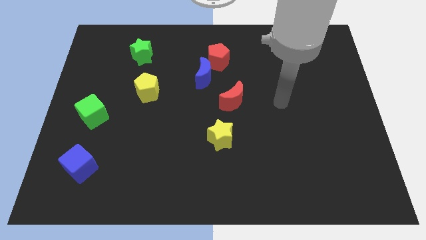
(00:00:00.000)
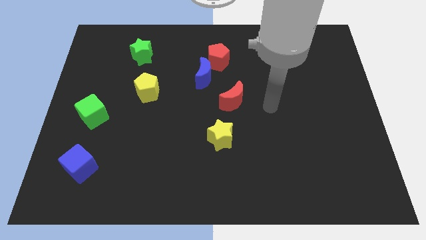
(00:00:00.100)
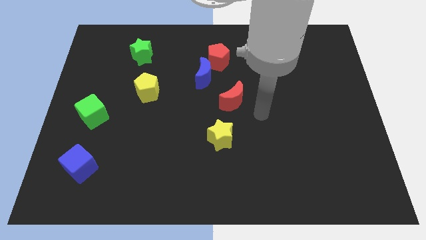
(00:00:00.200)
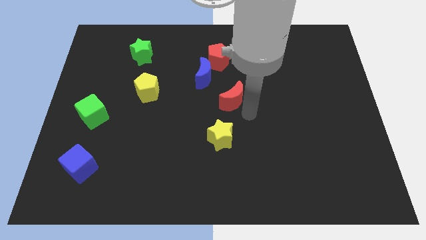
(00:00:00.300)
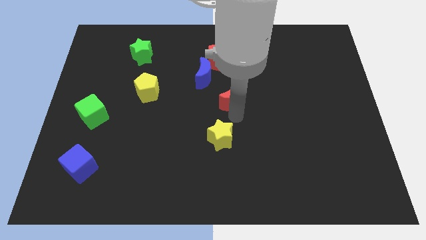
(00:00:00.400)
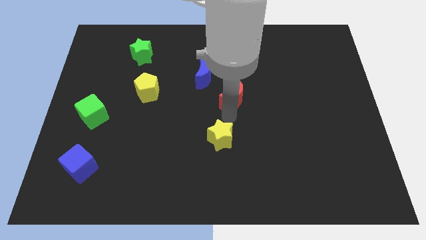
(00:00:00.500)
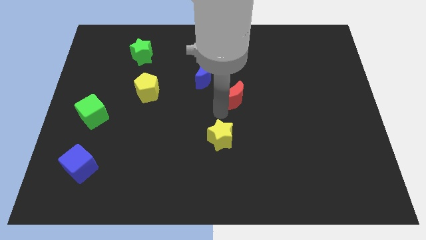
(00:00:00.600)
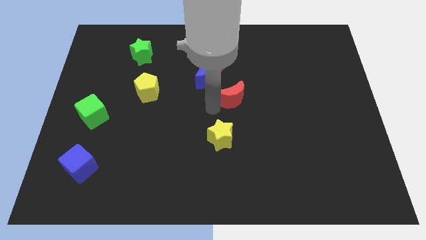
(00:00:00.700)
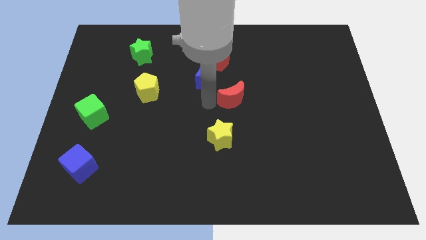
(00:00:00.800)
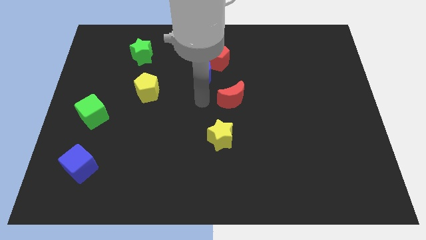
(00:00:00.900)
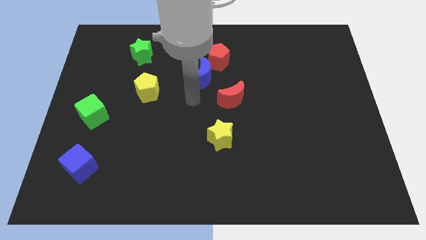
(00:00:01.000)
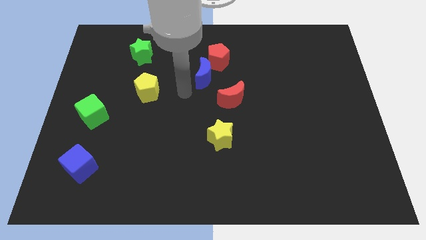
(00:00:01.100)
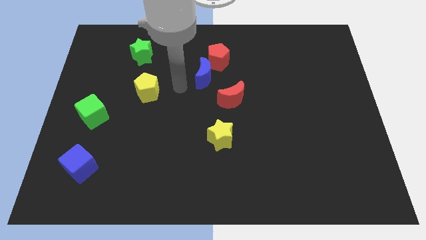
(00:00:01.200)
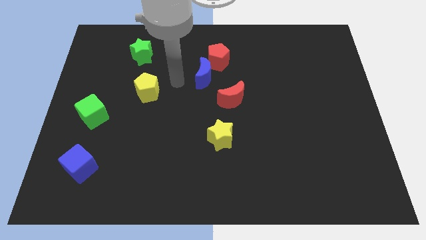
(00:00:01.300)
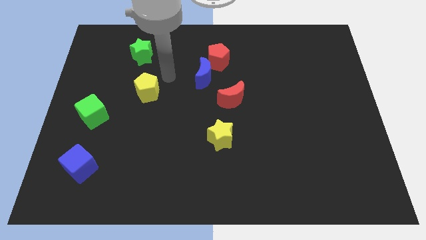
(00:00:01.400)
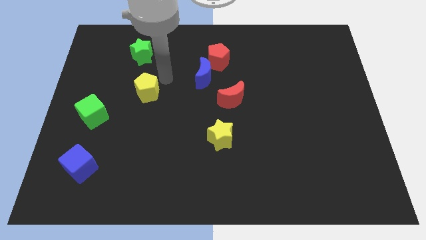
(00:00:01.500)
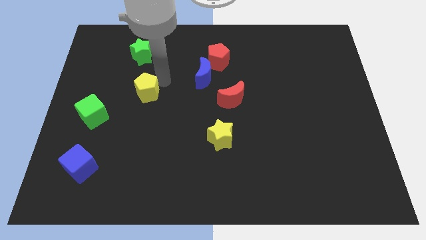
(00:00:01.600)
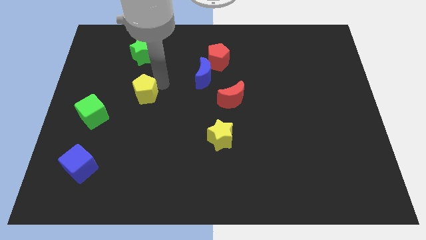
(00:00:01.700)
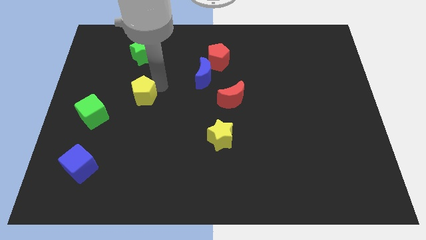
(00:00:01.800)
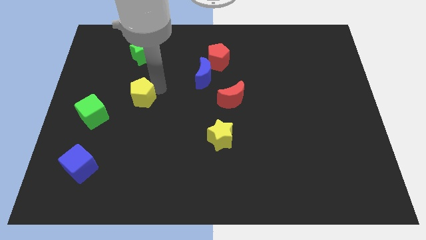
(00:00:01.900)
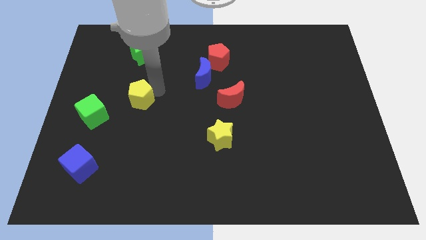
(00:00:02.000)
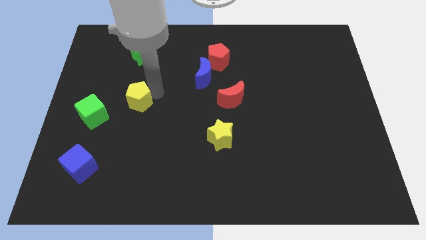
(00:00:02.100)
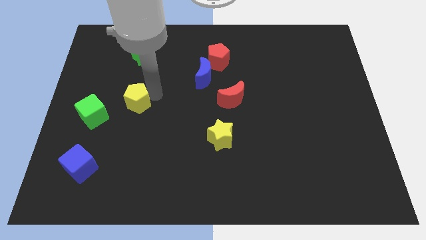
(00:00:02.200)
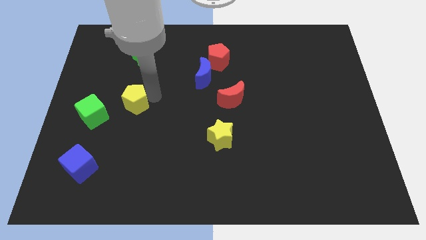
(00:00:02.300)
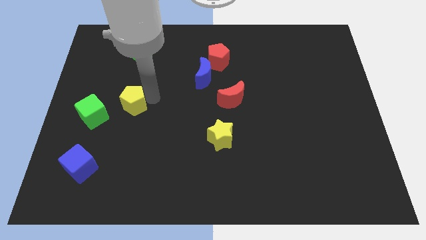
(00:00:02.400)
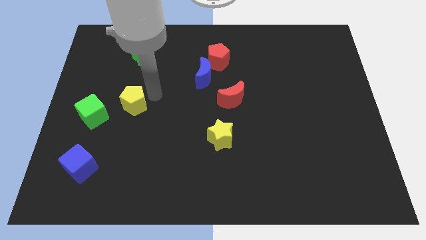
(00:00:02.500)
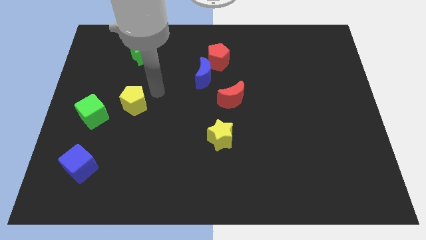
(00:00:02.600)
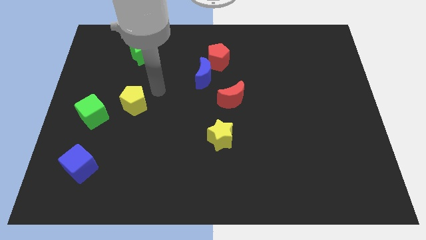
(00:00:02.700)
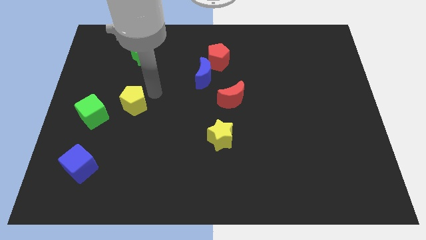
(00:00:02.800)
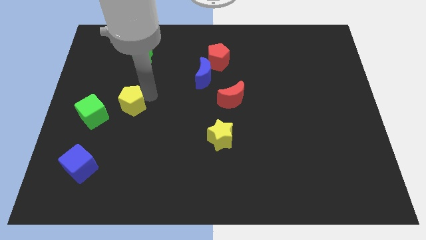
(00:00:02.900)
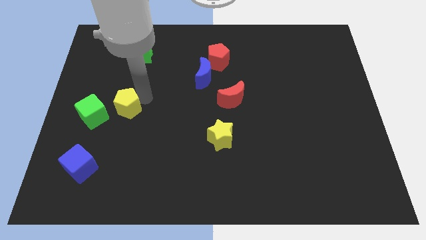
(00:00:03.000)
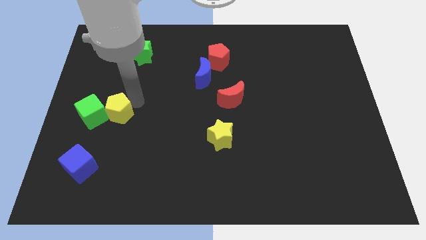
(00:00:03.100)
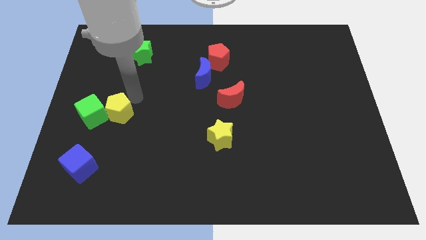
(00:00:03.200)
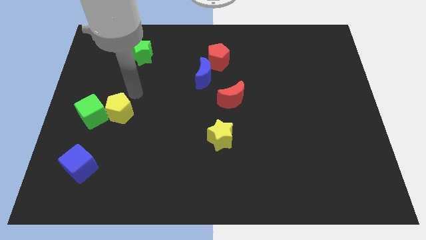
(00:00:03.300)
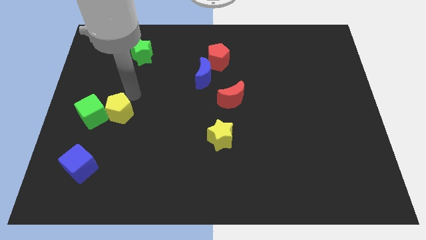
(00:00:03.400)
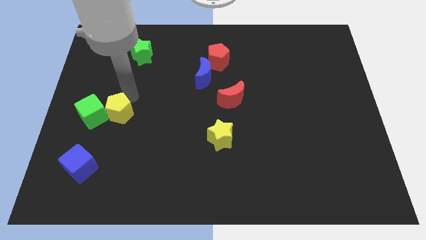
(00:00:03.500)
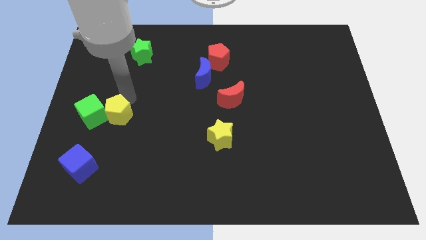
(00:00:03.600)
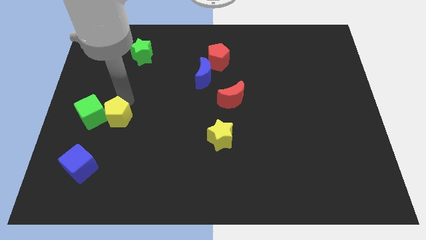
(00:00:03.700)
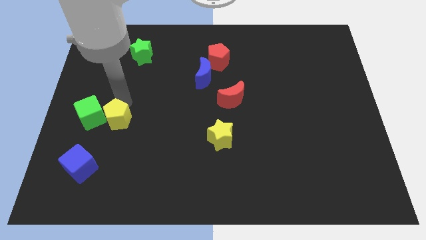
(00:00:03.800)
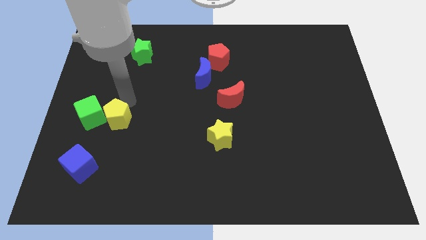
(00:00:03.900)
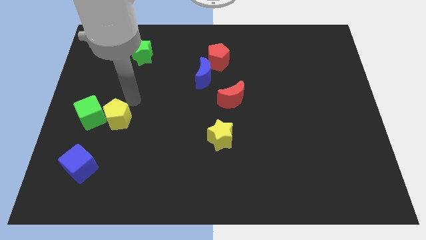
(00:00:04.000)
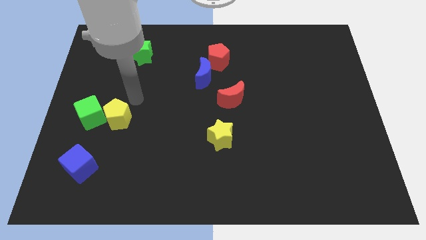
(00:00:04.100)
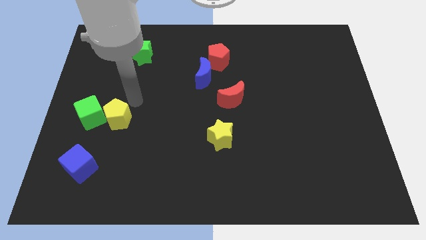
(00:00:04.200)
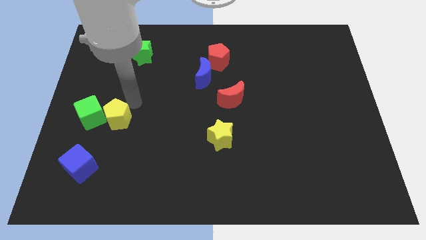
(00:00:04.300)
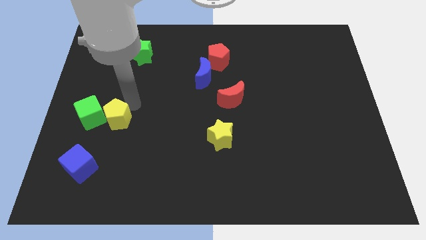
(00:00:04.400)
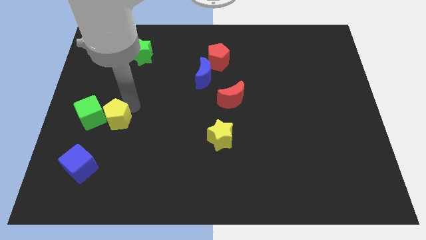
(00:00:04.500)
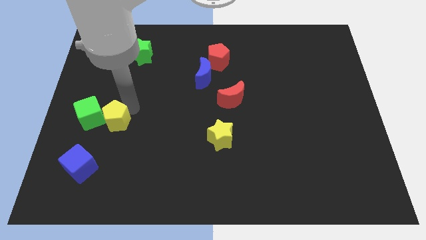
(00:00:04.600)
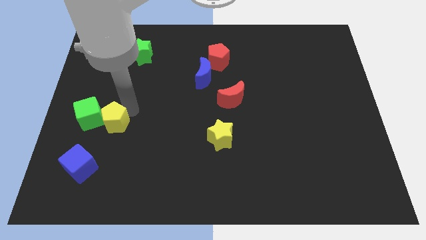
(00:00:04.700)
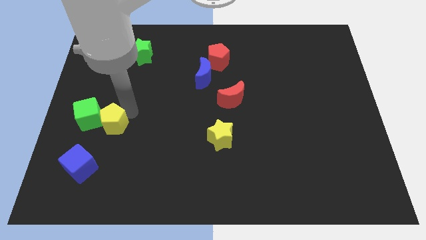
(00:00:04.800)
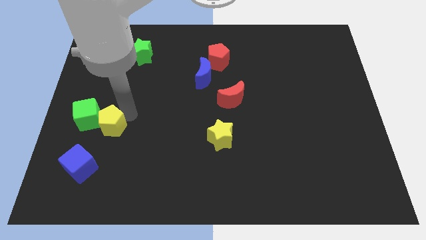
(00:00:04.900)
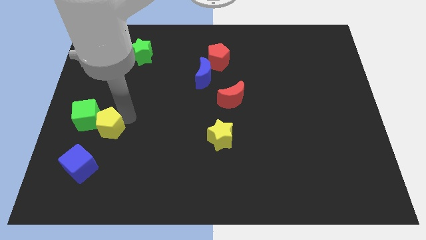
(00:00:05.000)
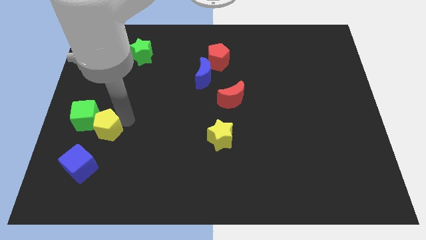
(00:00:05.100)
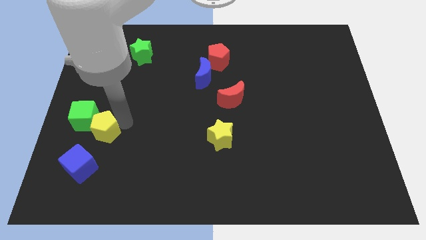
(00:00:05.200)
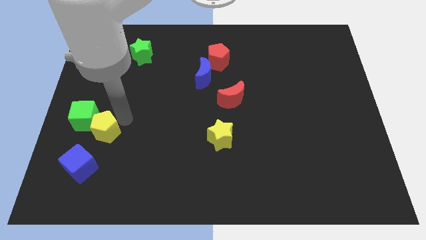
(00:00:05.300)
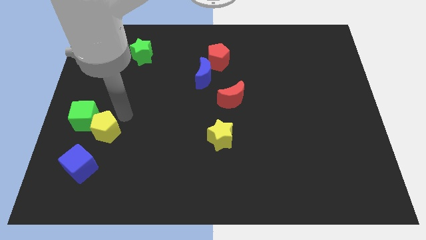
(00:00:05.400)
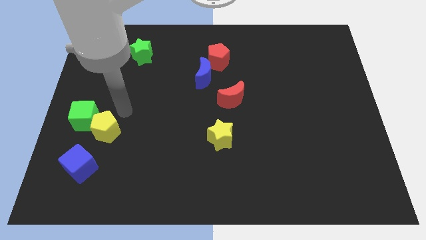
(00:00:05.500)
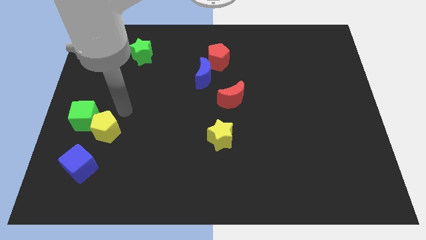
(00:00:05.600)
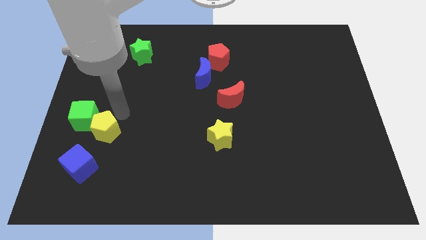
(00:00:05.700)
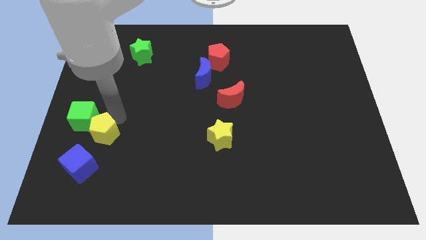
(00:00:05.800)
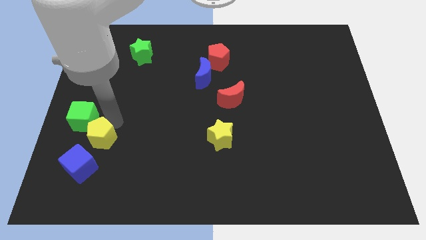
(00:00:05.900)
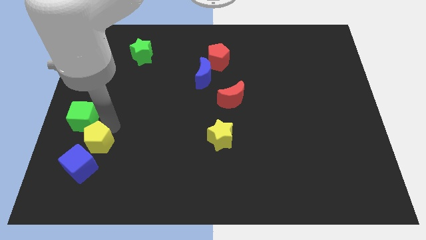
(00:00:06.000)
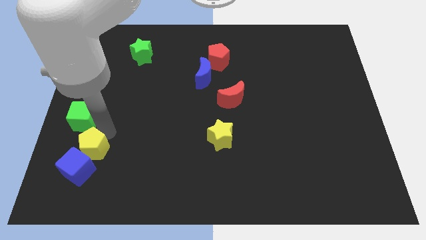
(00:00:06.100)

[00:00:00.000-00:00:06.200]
move the yellow pentagon to the blue cube

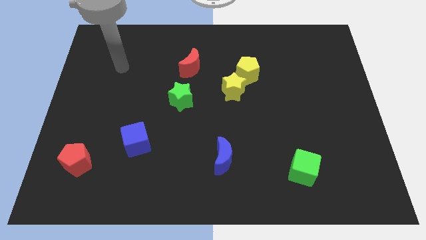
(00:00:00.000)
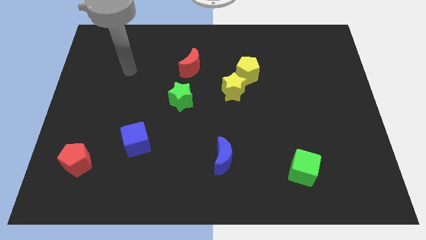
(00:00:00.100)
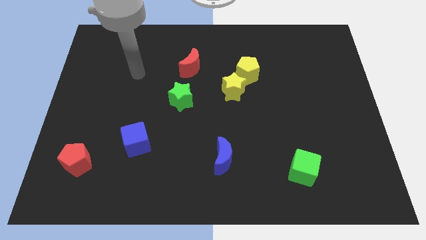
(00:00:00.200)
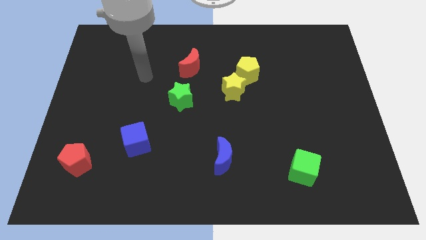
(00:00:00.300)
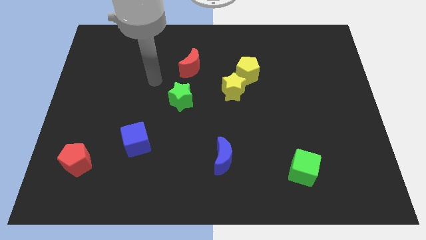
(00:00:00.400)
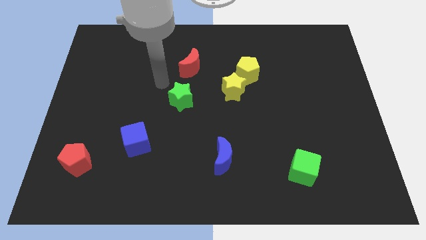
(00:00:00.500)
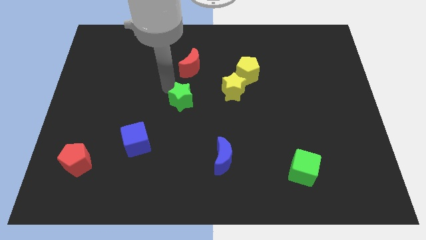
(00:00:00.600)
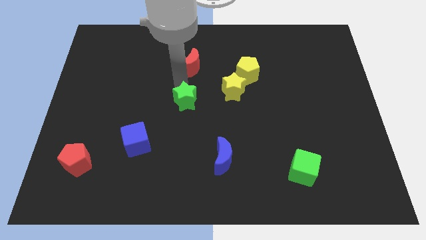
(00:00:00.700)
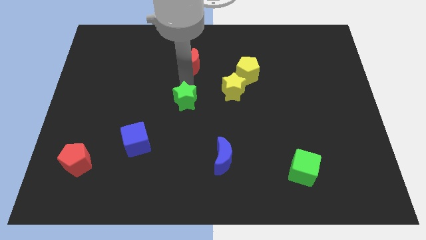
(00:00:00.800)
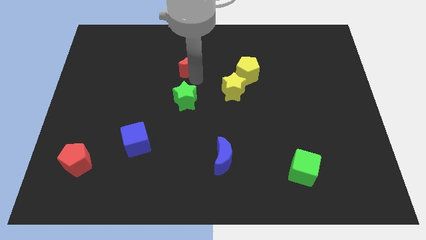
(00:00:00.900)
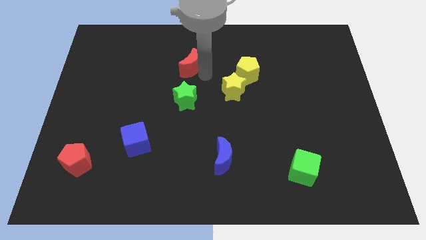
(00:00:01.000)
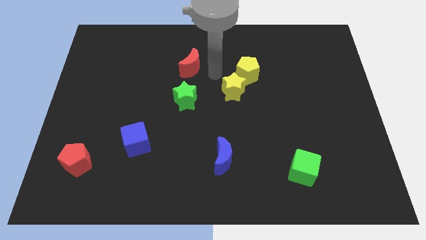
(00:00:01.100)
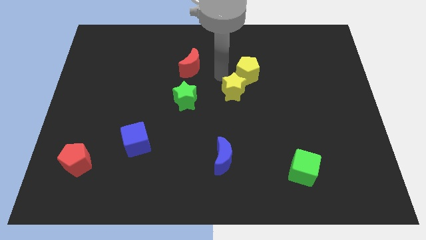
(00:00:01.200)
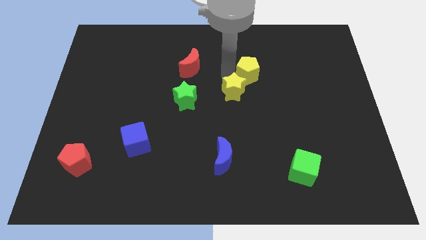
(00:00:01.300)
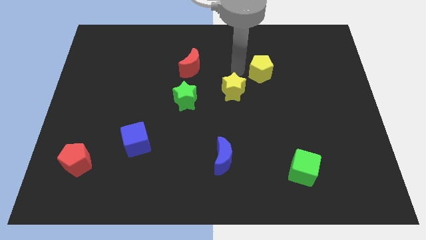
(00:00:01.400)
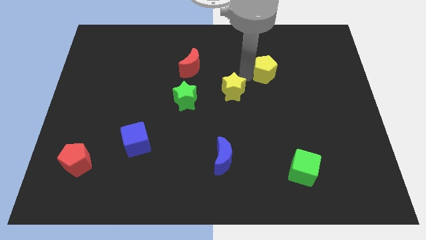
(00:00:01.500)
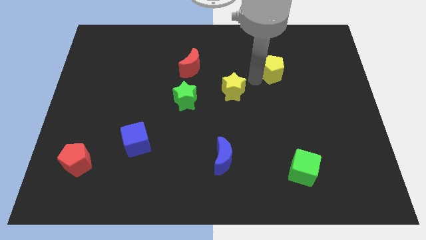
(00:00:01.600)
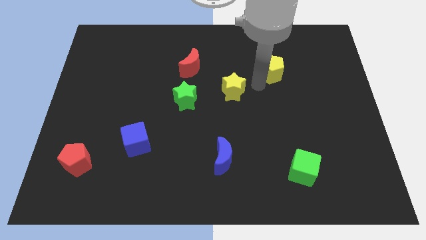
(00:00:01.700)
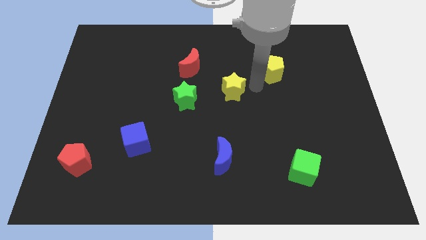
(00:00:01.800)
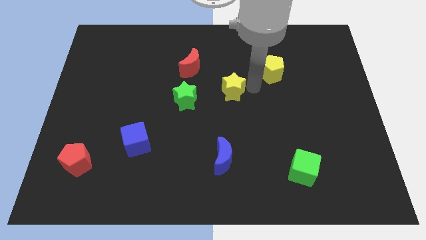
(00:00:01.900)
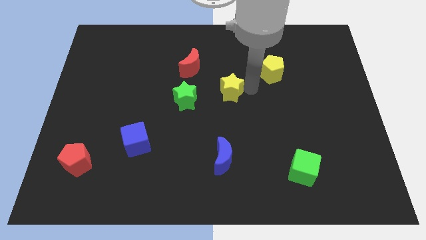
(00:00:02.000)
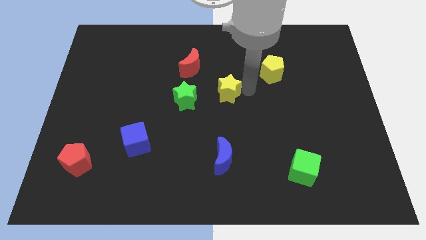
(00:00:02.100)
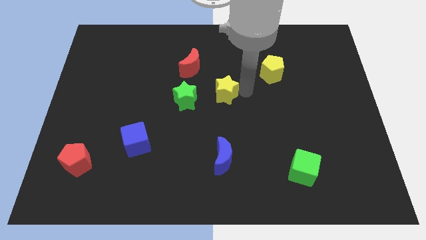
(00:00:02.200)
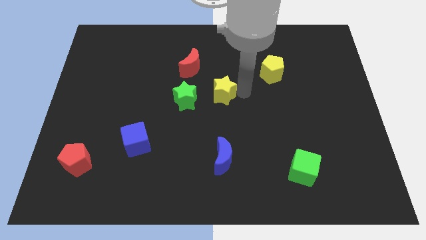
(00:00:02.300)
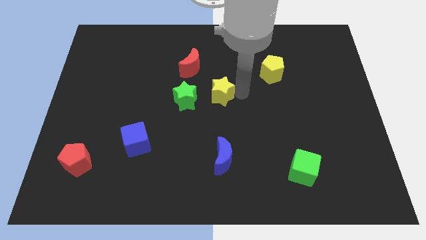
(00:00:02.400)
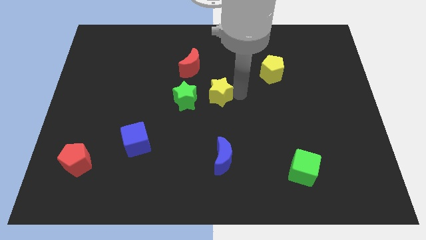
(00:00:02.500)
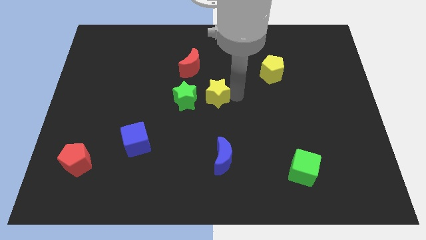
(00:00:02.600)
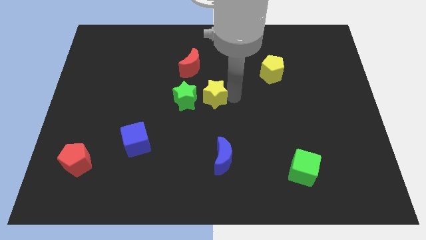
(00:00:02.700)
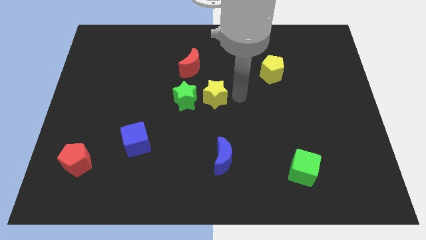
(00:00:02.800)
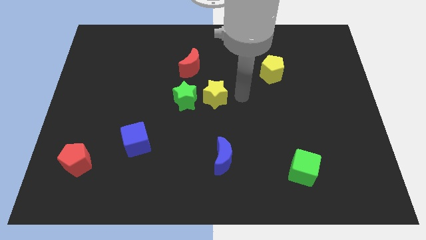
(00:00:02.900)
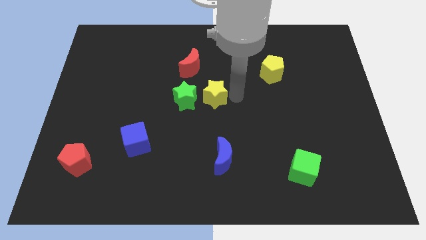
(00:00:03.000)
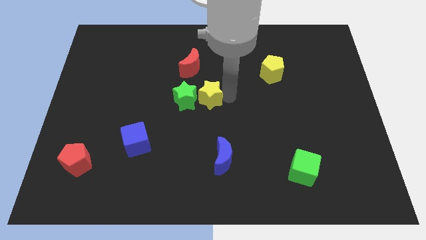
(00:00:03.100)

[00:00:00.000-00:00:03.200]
slide the yellow star close to the green star
